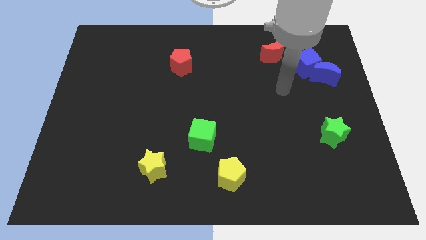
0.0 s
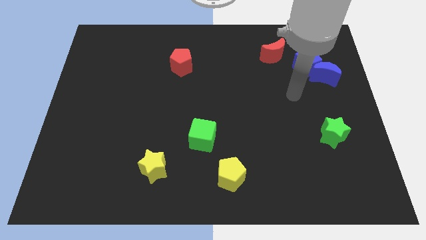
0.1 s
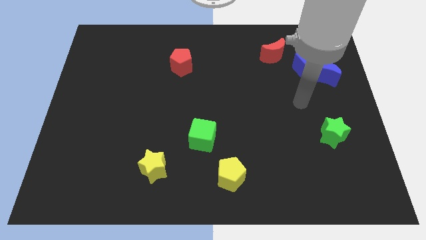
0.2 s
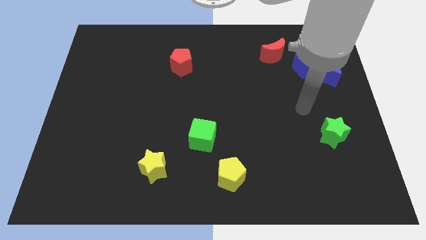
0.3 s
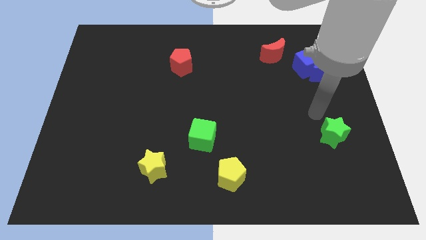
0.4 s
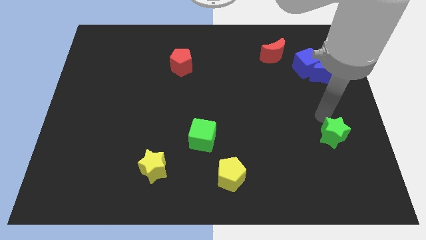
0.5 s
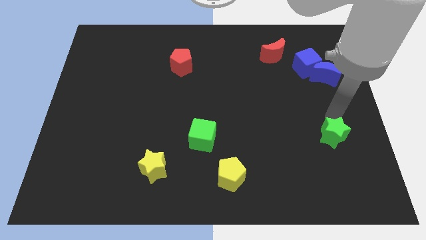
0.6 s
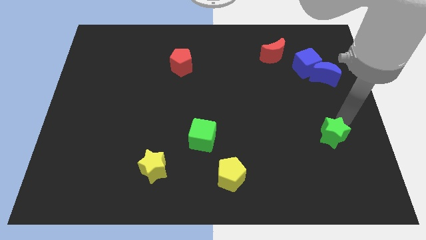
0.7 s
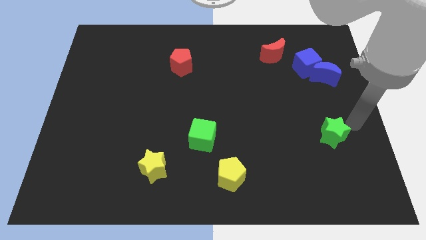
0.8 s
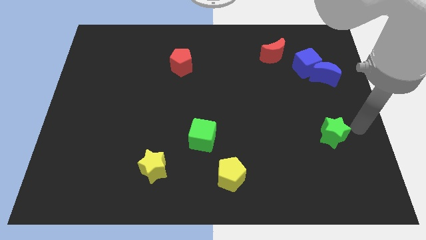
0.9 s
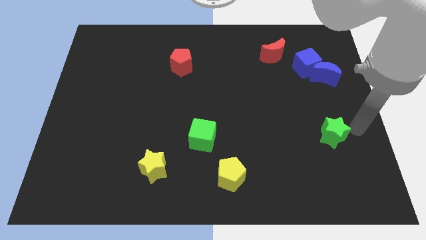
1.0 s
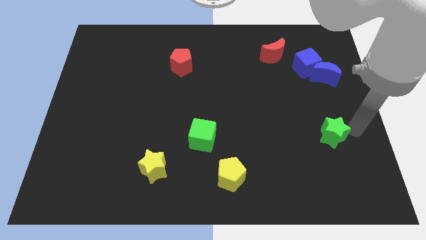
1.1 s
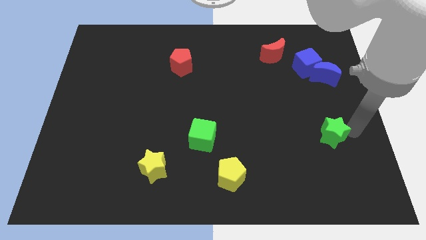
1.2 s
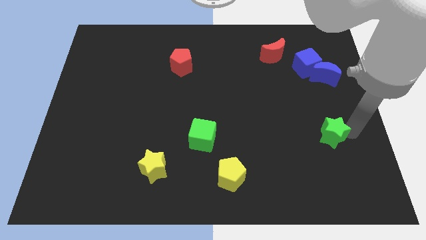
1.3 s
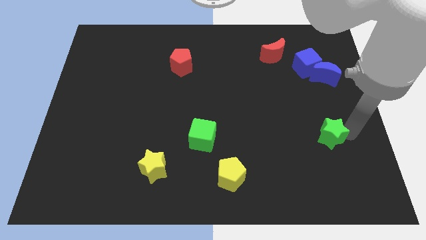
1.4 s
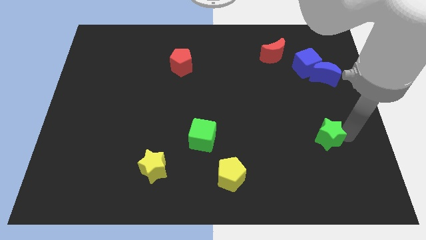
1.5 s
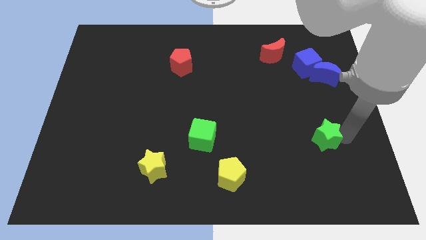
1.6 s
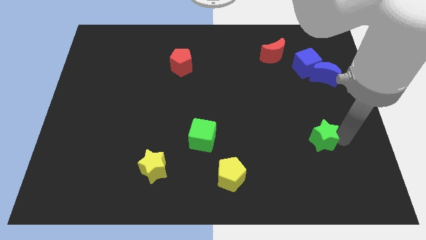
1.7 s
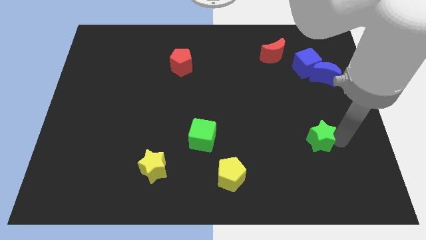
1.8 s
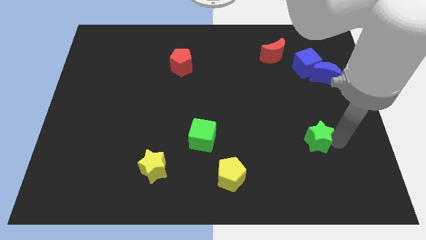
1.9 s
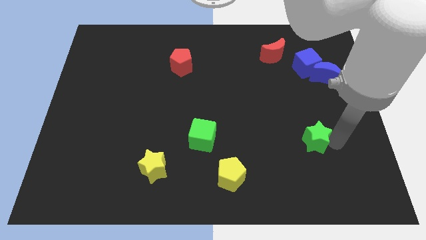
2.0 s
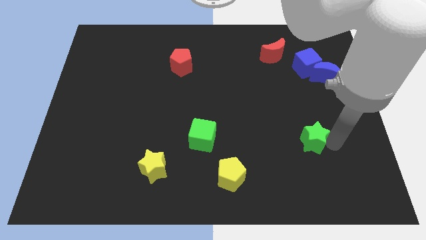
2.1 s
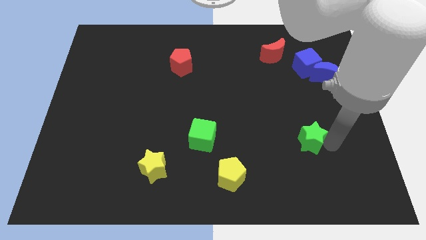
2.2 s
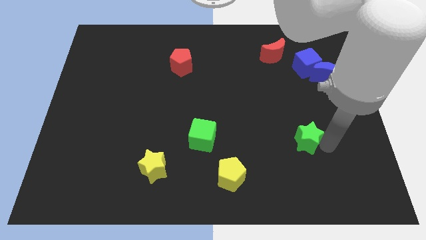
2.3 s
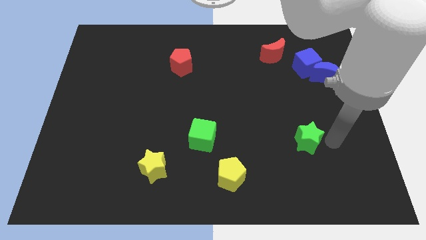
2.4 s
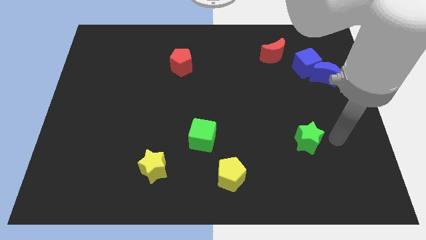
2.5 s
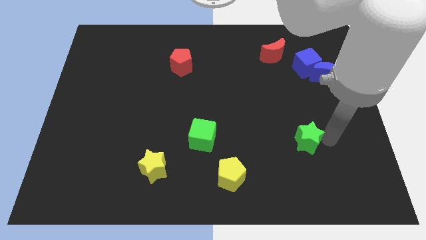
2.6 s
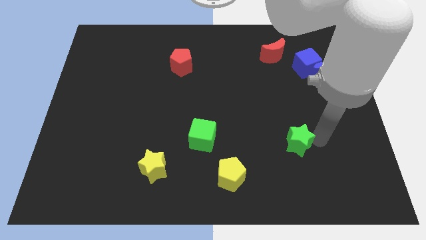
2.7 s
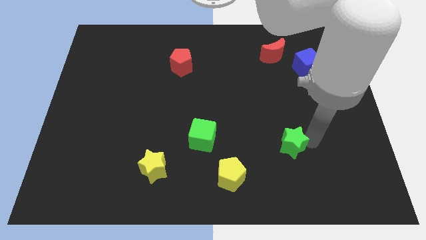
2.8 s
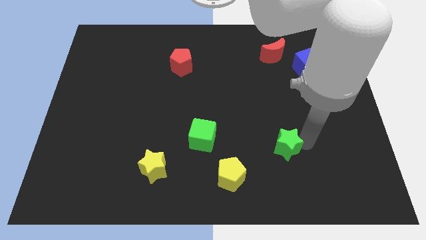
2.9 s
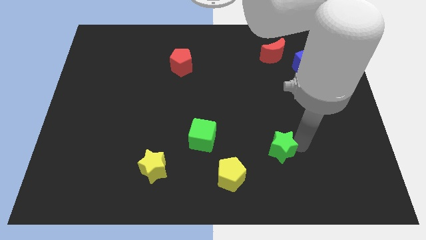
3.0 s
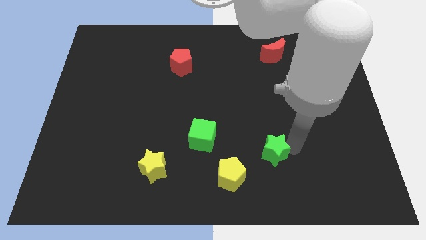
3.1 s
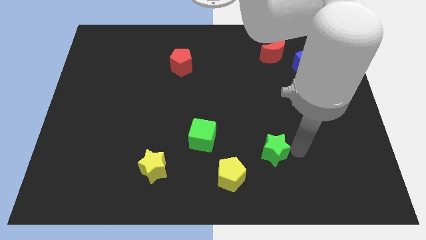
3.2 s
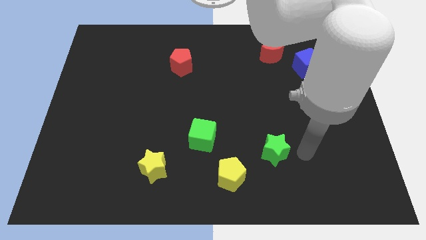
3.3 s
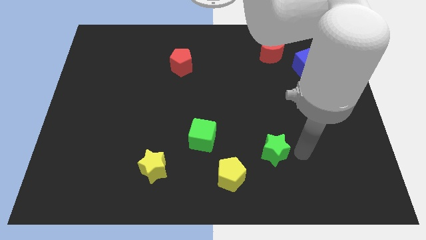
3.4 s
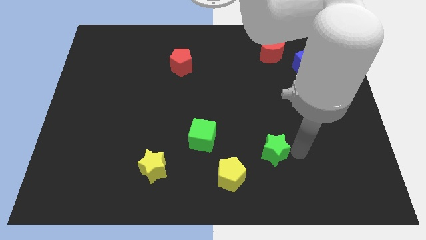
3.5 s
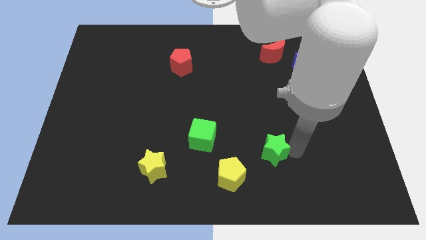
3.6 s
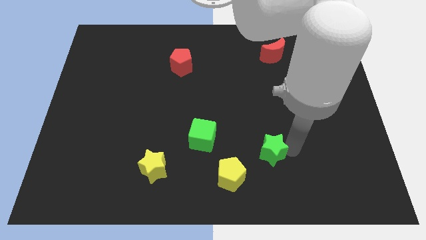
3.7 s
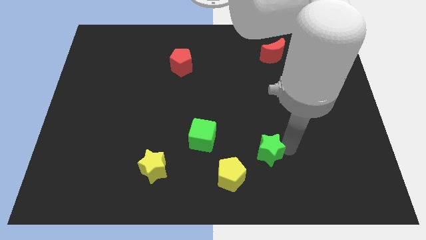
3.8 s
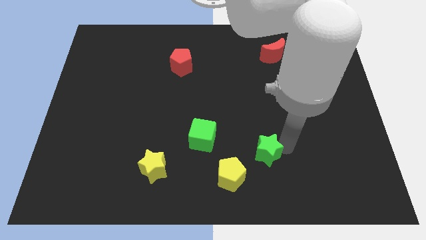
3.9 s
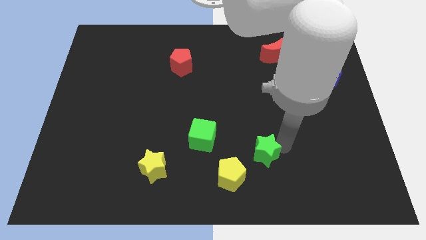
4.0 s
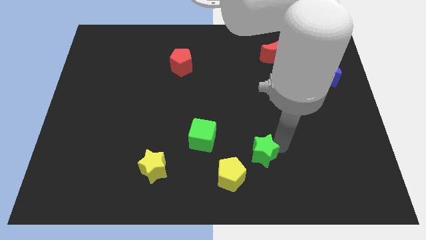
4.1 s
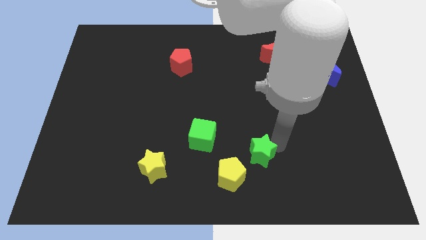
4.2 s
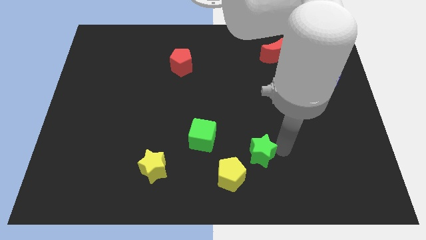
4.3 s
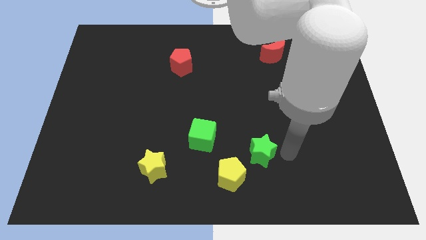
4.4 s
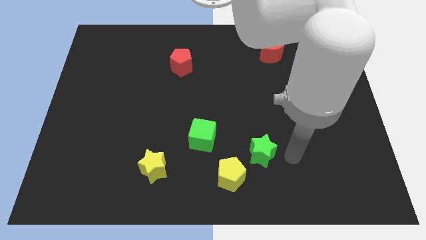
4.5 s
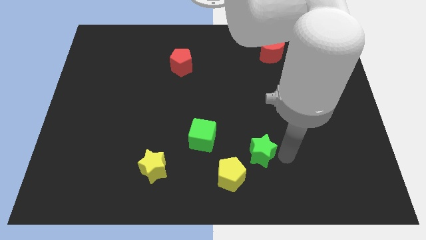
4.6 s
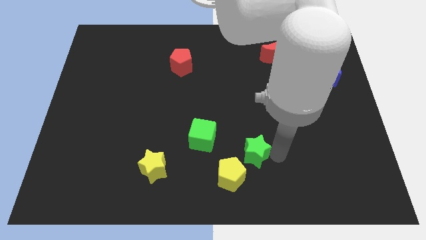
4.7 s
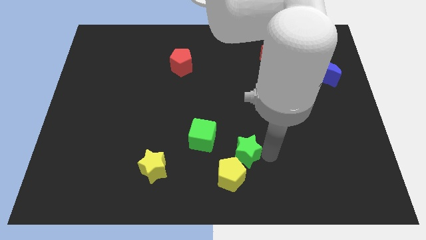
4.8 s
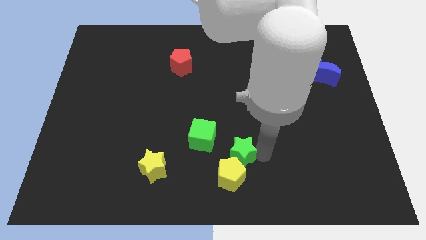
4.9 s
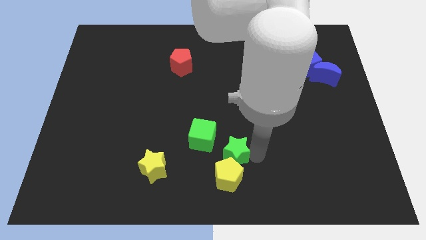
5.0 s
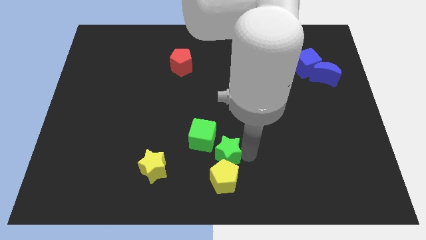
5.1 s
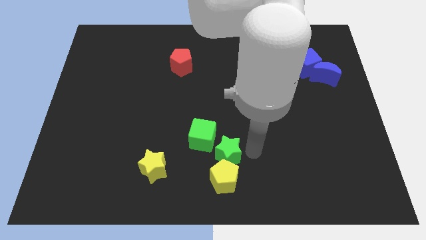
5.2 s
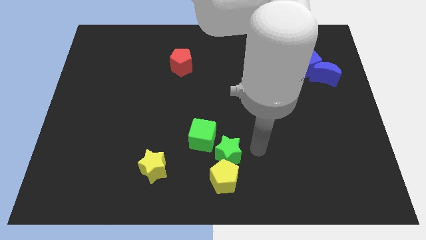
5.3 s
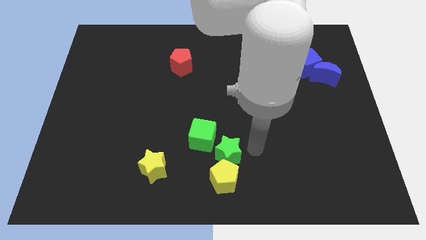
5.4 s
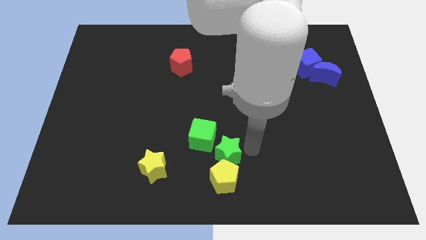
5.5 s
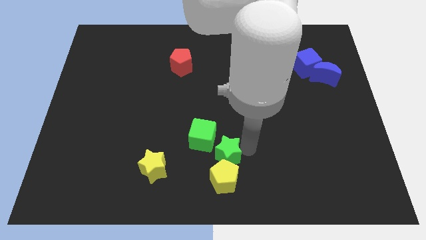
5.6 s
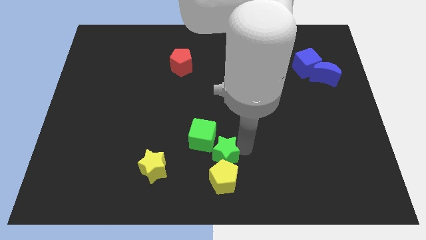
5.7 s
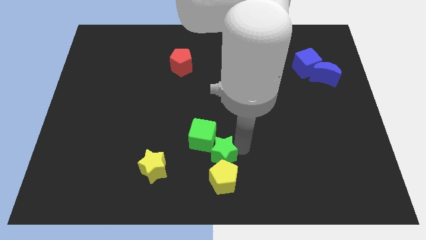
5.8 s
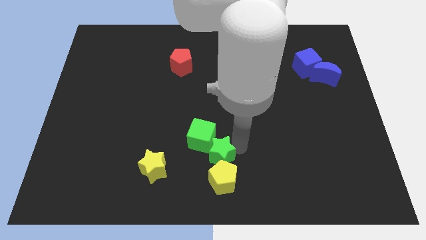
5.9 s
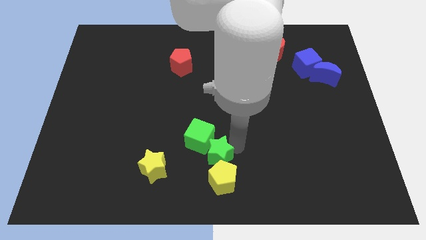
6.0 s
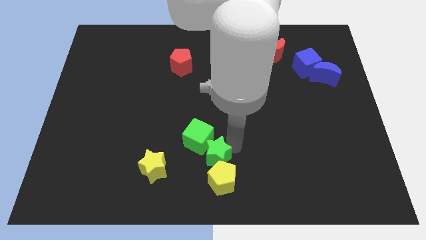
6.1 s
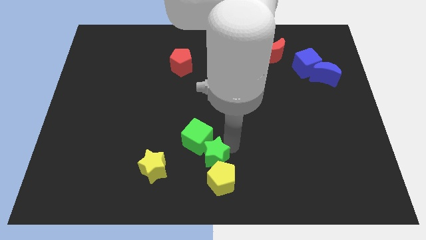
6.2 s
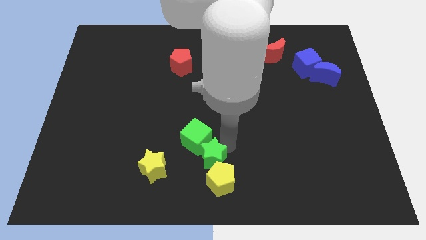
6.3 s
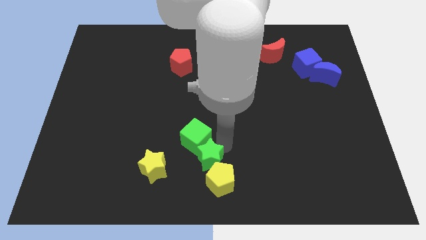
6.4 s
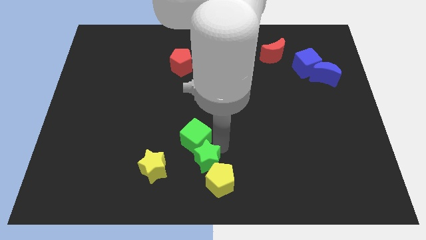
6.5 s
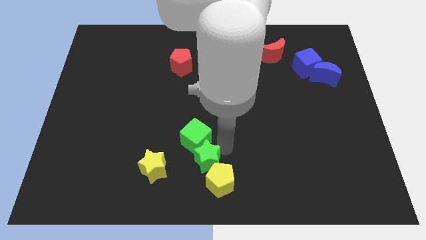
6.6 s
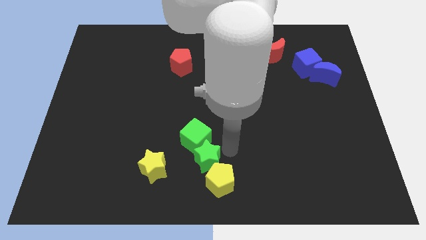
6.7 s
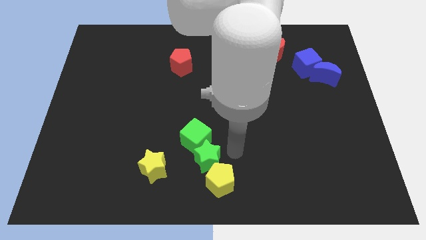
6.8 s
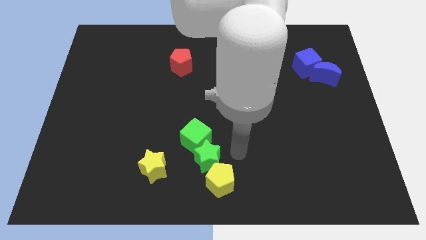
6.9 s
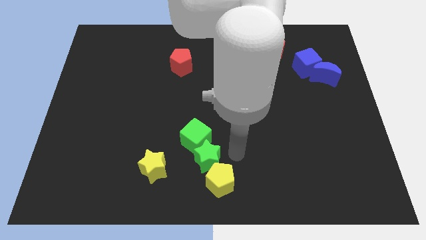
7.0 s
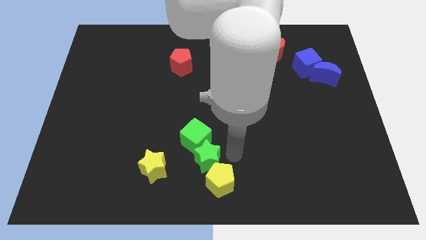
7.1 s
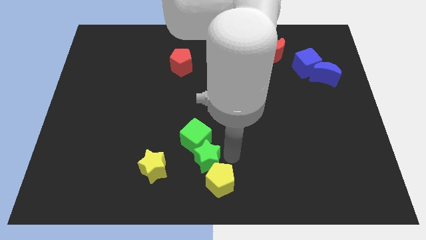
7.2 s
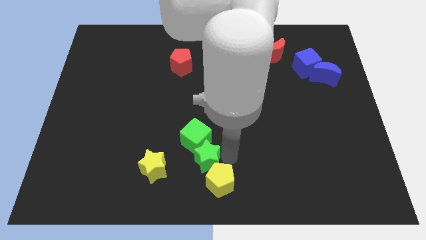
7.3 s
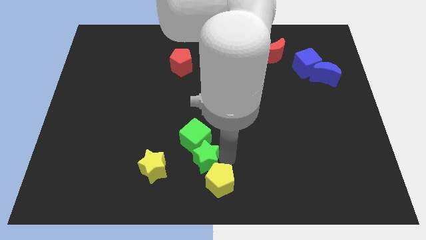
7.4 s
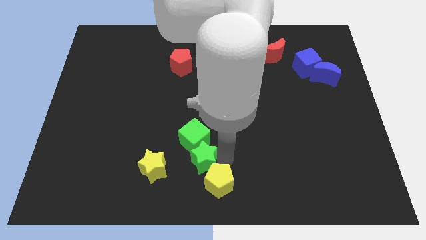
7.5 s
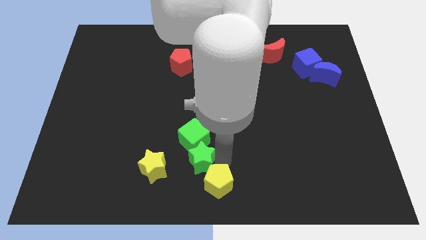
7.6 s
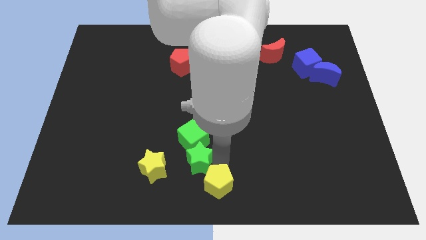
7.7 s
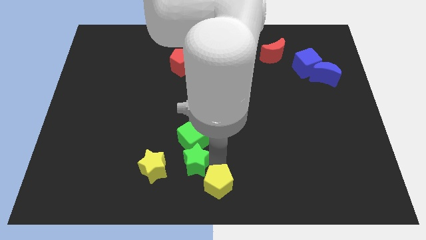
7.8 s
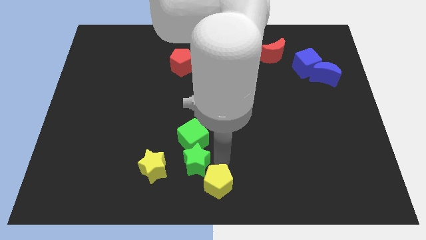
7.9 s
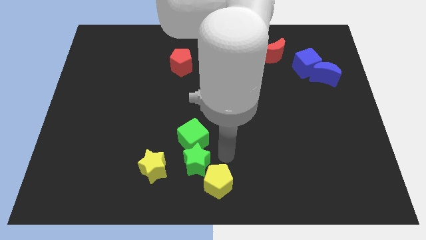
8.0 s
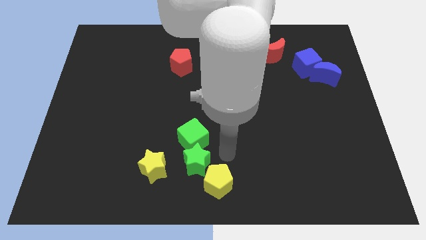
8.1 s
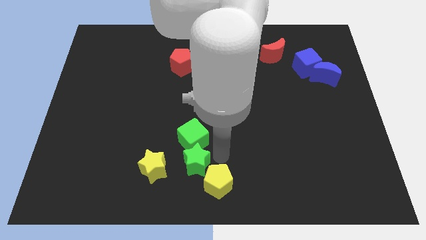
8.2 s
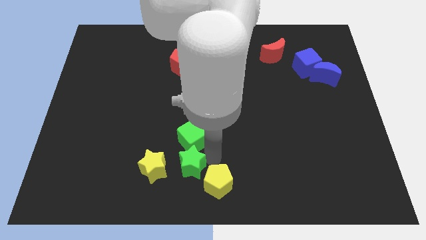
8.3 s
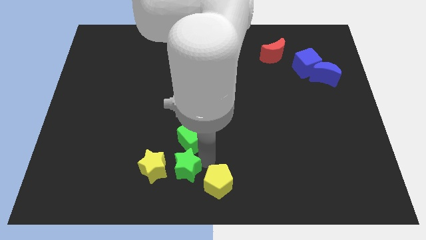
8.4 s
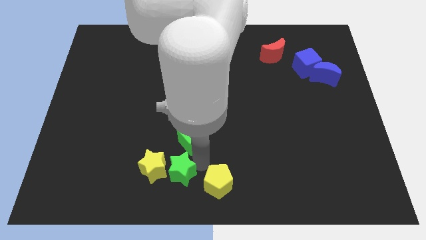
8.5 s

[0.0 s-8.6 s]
move the green star next to the yellow star
